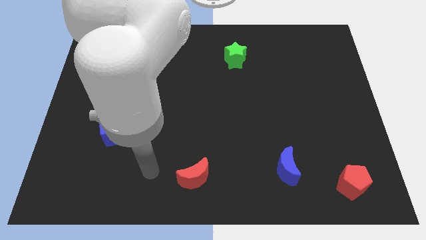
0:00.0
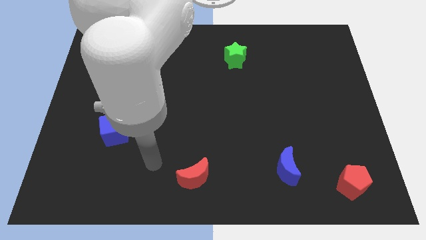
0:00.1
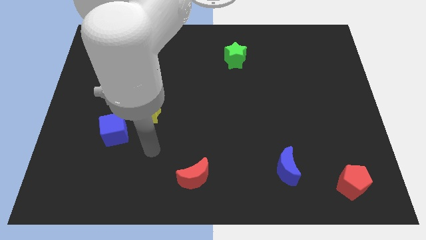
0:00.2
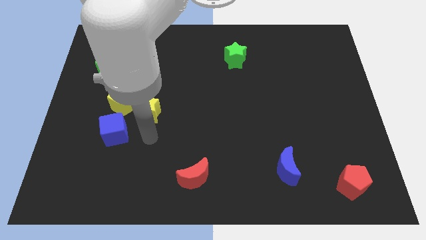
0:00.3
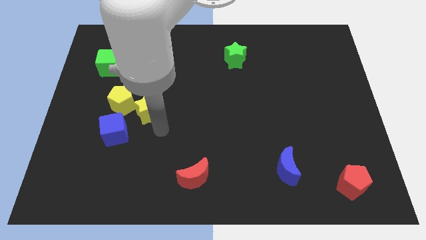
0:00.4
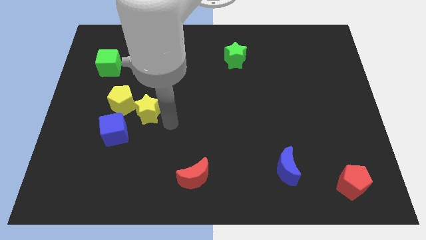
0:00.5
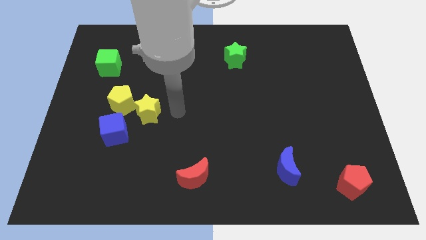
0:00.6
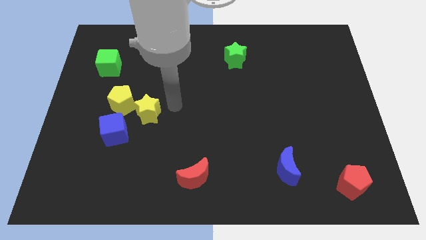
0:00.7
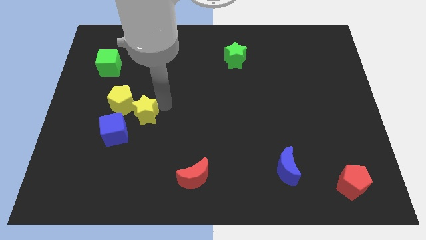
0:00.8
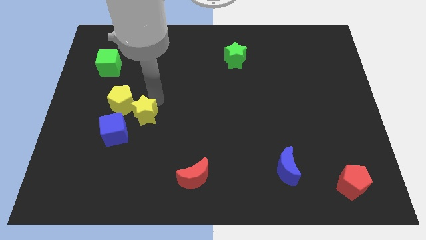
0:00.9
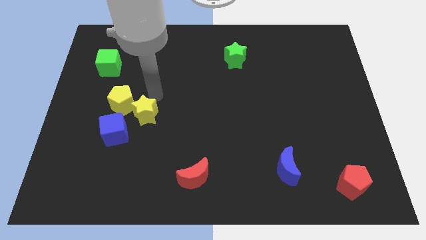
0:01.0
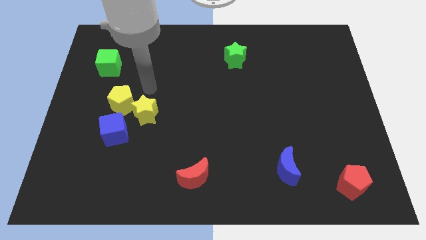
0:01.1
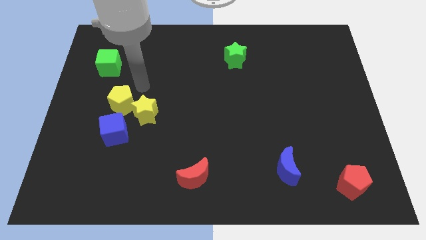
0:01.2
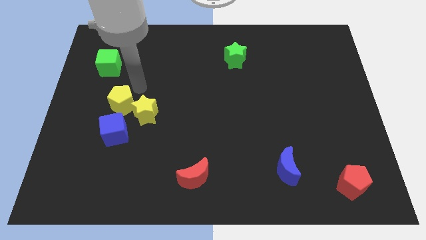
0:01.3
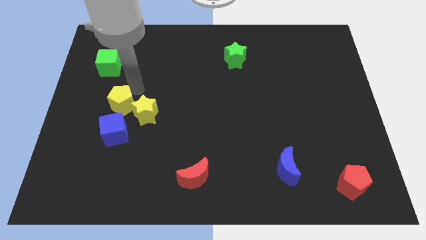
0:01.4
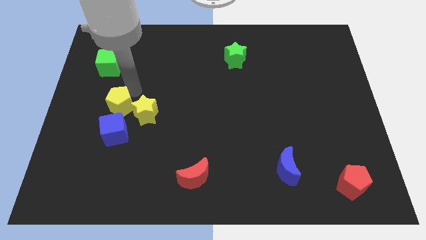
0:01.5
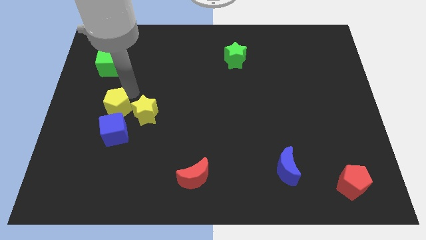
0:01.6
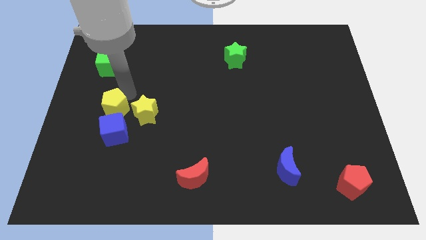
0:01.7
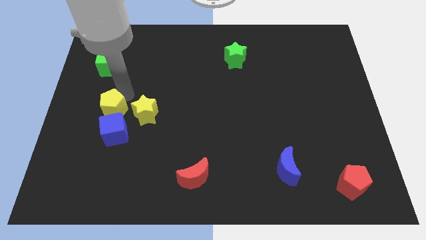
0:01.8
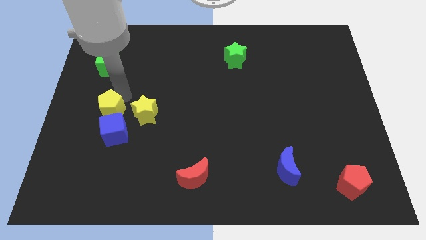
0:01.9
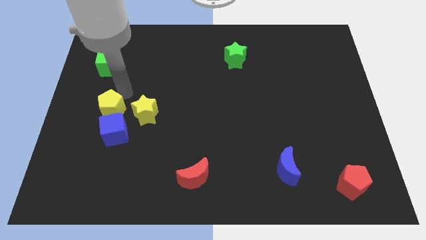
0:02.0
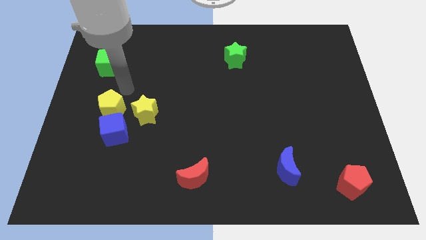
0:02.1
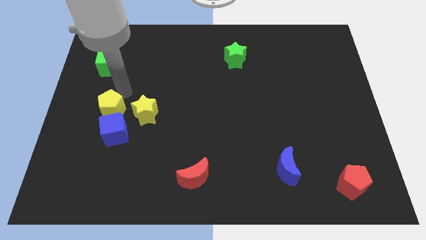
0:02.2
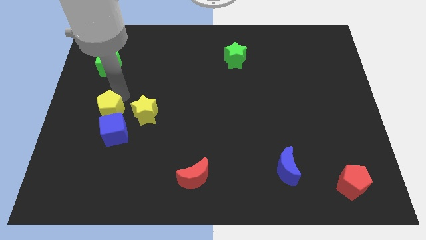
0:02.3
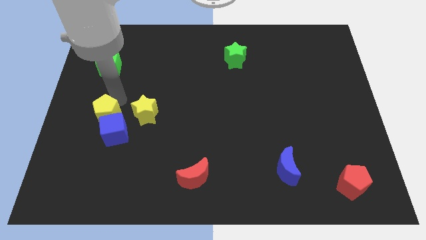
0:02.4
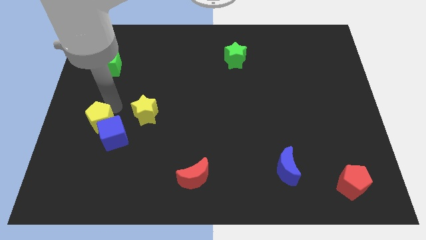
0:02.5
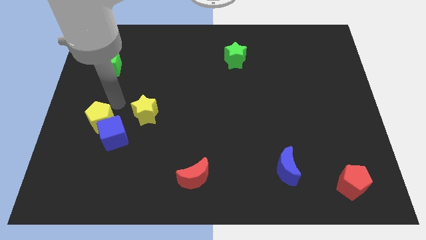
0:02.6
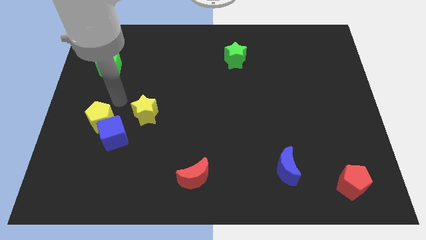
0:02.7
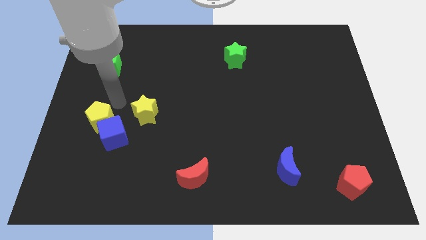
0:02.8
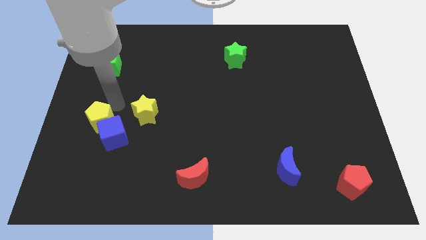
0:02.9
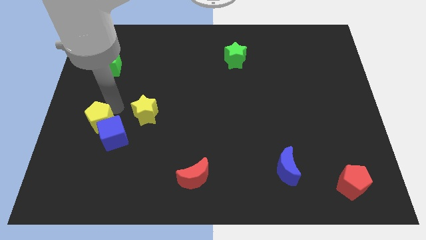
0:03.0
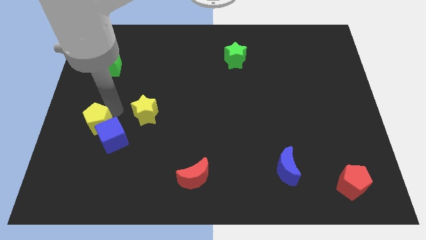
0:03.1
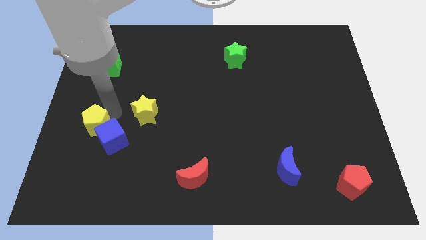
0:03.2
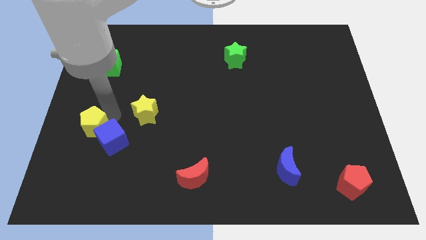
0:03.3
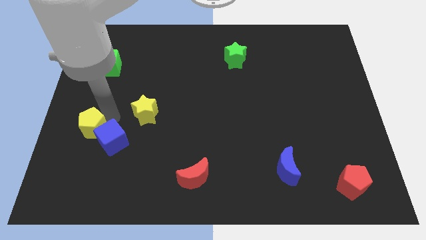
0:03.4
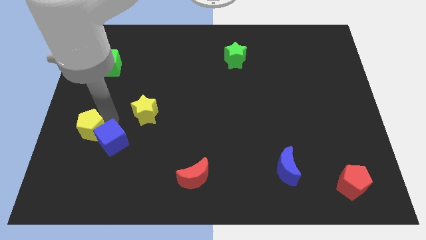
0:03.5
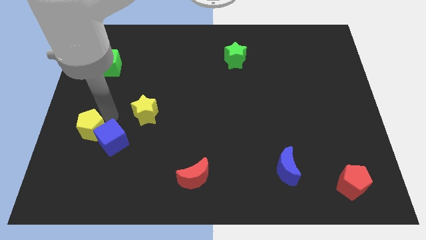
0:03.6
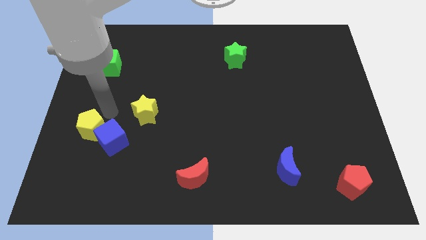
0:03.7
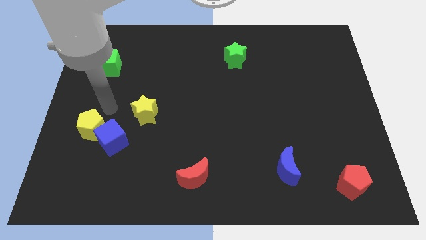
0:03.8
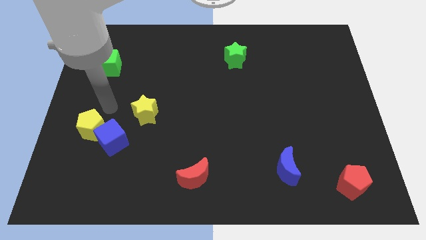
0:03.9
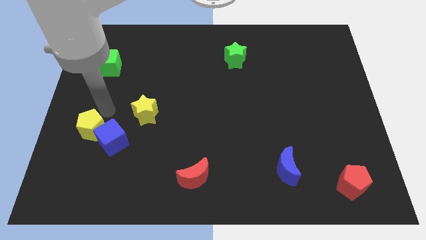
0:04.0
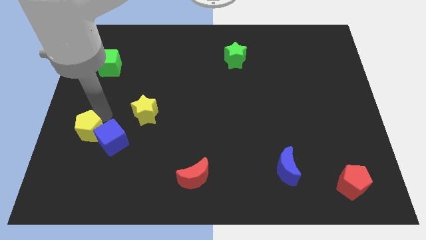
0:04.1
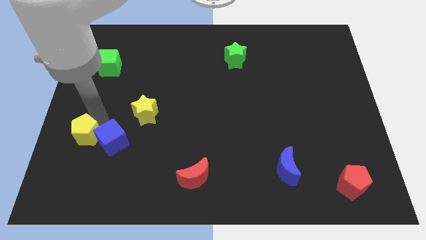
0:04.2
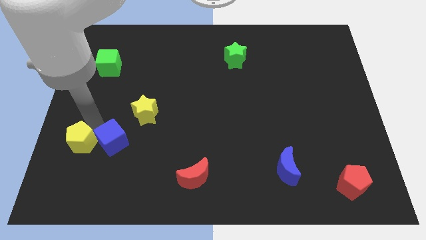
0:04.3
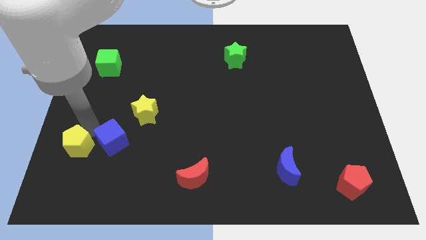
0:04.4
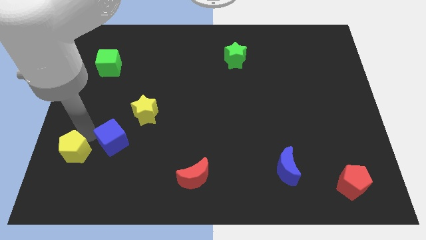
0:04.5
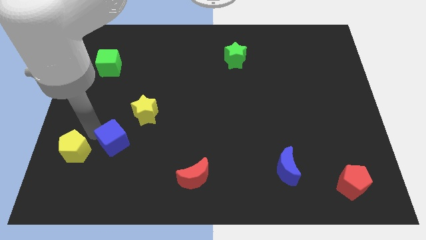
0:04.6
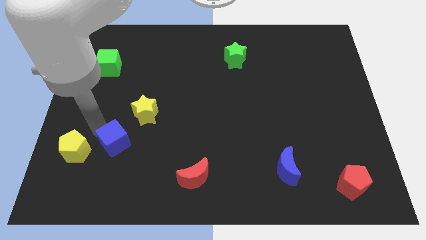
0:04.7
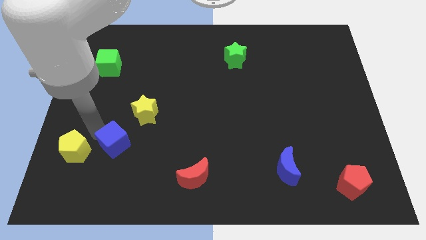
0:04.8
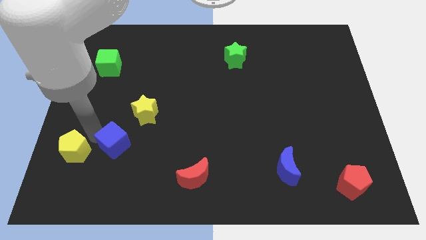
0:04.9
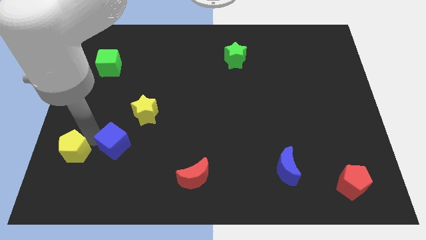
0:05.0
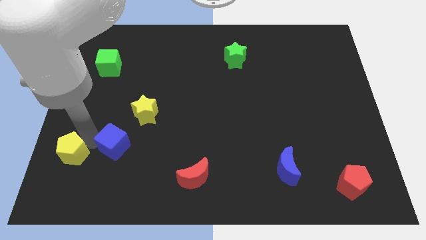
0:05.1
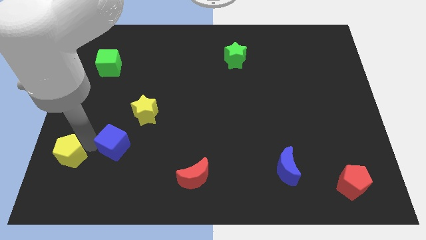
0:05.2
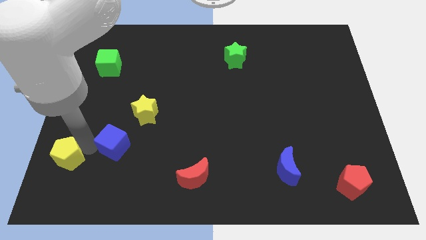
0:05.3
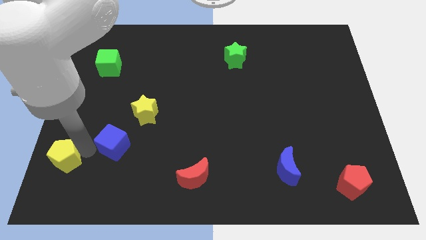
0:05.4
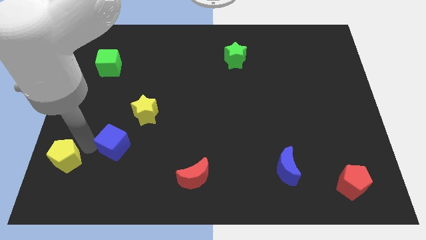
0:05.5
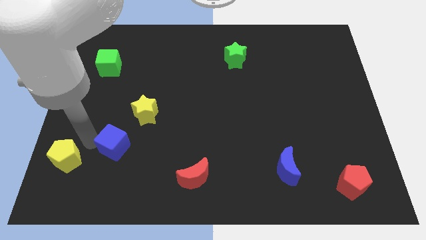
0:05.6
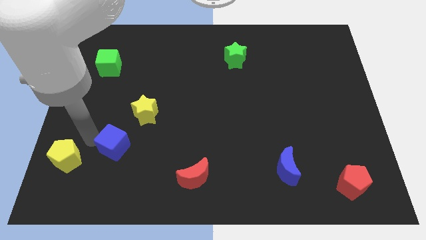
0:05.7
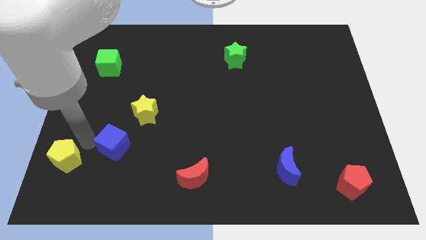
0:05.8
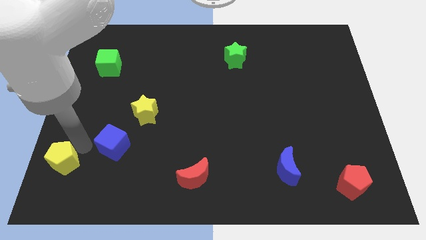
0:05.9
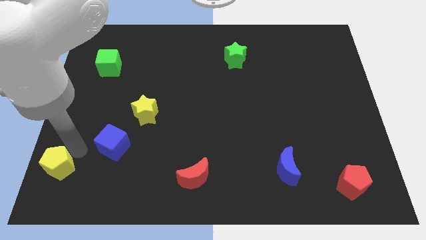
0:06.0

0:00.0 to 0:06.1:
put the yellow pentagon to the bottom left of the board
